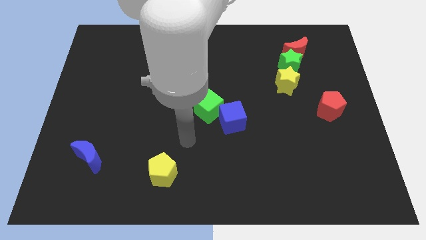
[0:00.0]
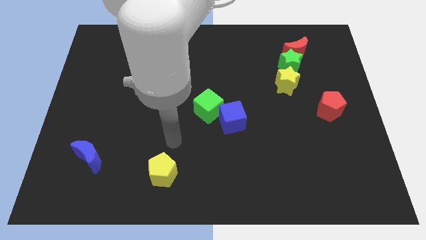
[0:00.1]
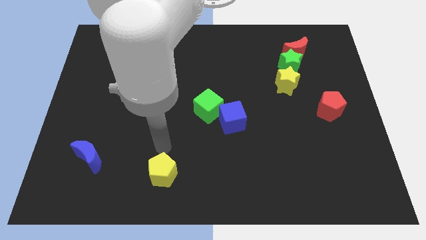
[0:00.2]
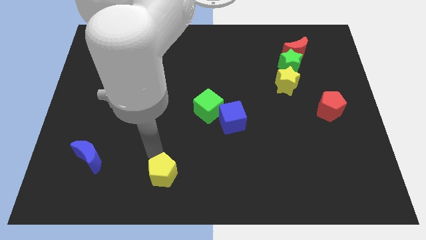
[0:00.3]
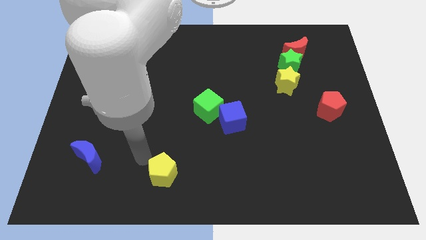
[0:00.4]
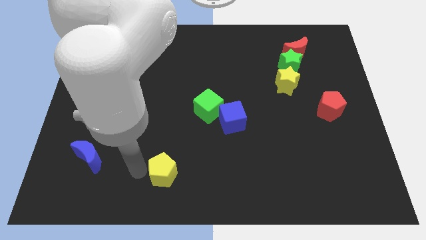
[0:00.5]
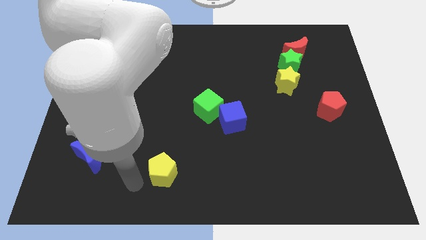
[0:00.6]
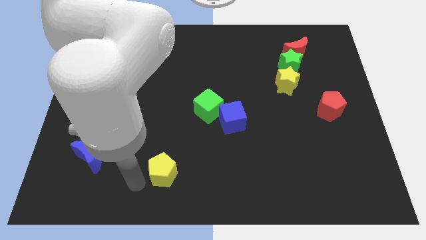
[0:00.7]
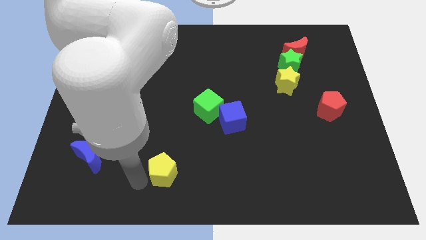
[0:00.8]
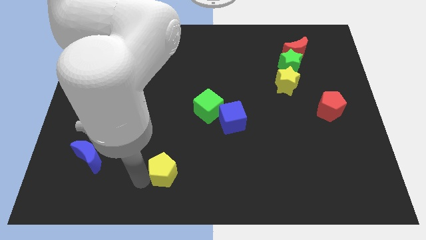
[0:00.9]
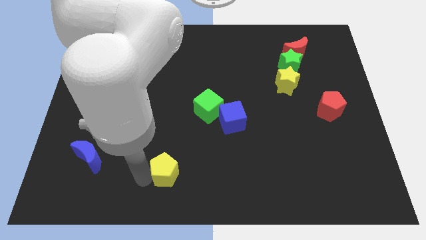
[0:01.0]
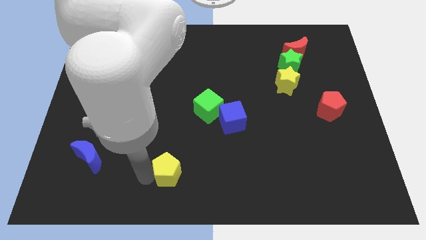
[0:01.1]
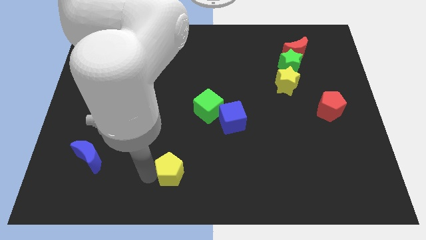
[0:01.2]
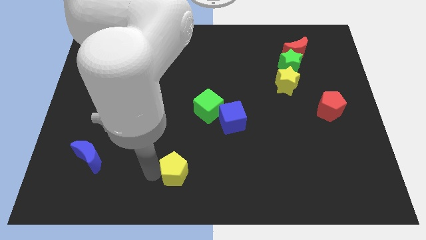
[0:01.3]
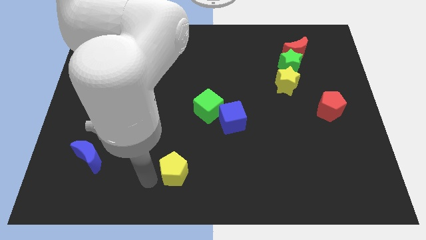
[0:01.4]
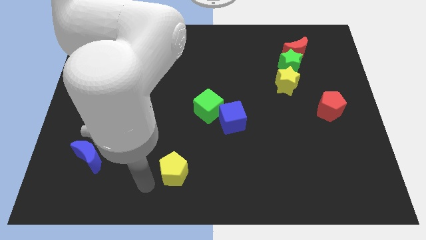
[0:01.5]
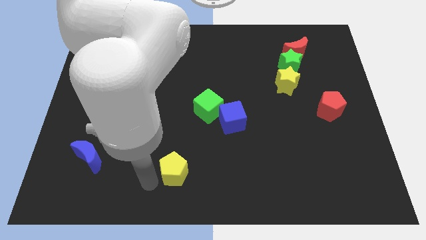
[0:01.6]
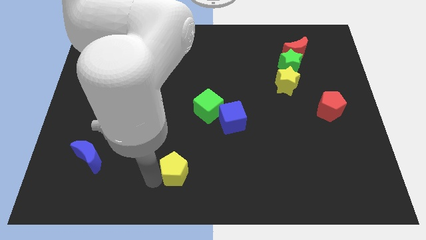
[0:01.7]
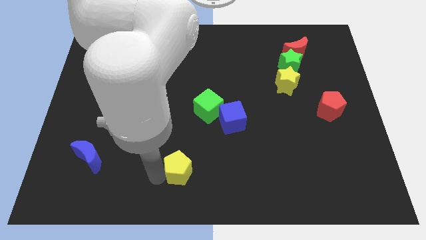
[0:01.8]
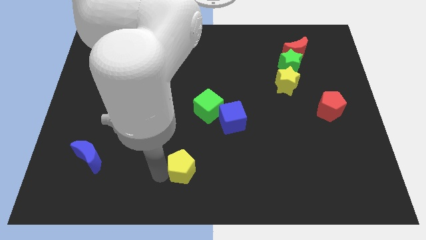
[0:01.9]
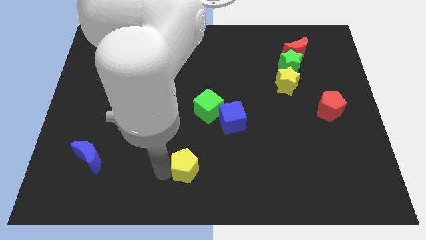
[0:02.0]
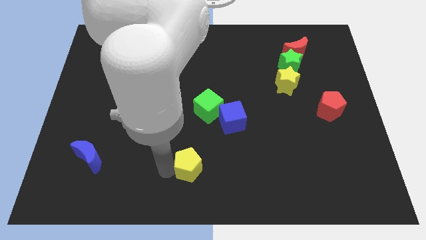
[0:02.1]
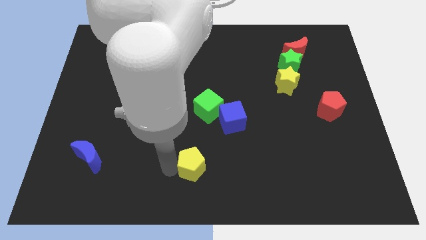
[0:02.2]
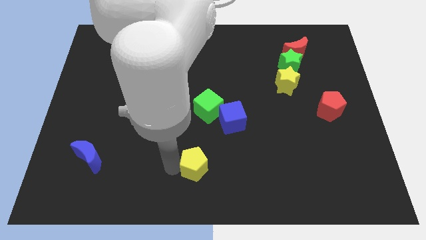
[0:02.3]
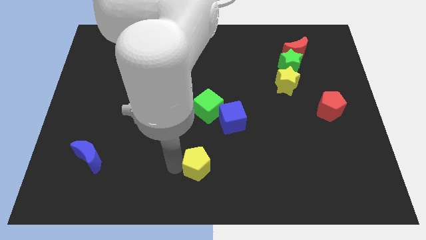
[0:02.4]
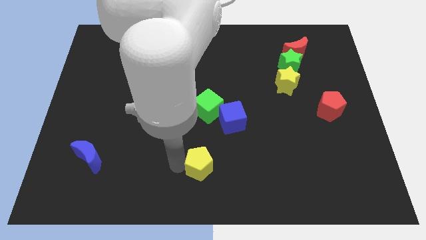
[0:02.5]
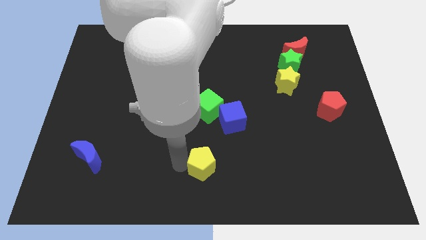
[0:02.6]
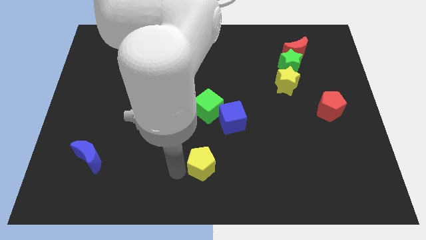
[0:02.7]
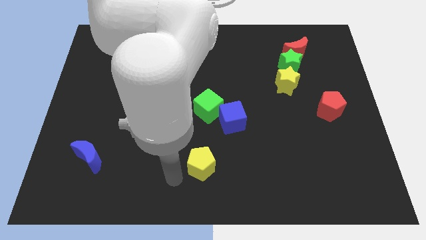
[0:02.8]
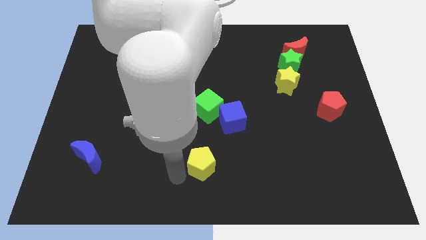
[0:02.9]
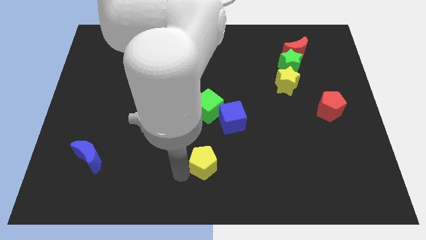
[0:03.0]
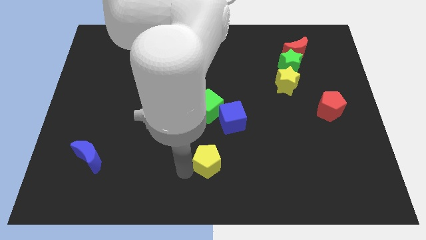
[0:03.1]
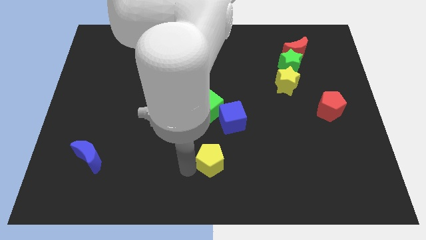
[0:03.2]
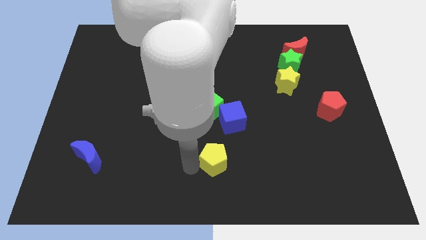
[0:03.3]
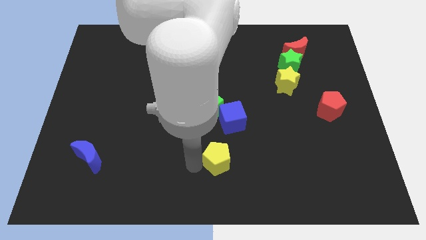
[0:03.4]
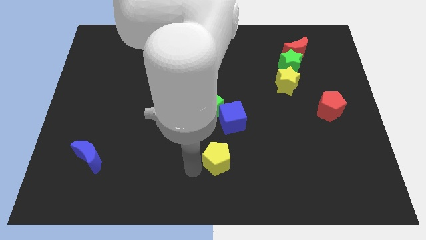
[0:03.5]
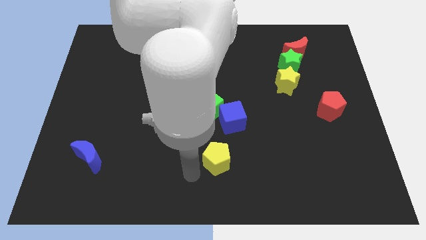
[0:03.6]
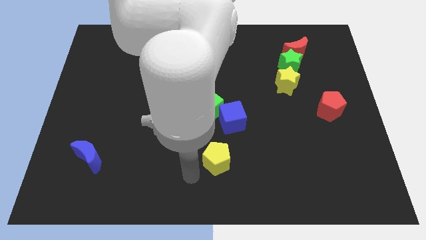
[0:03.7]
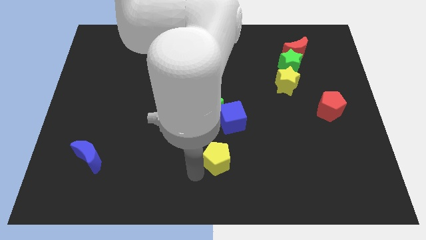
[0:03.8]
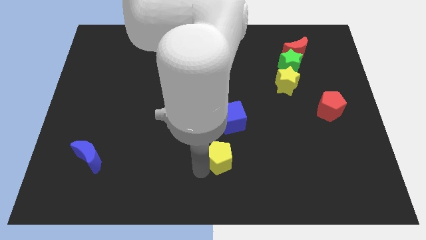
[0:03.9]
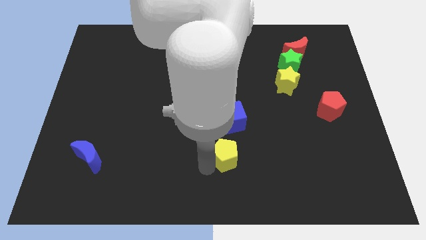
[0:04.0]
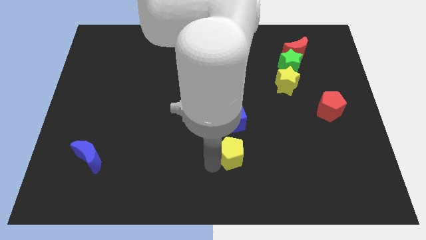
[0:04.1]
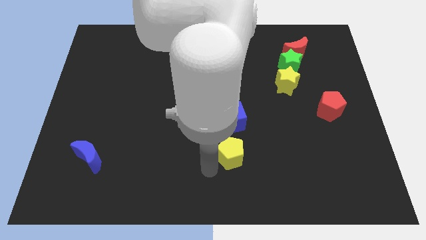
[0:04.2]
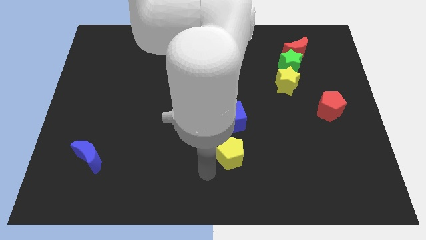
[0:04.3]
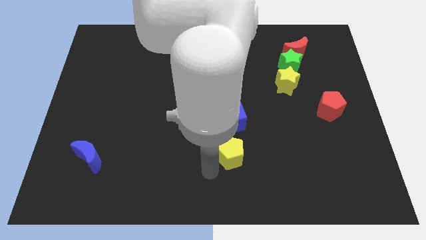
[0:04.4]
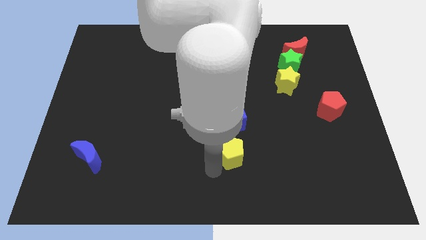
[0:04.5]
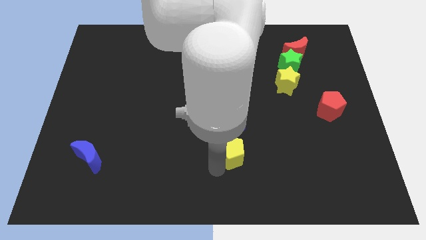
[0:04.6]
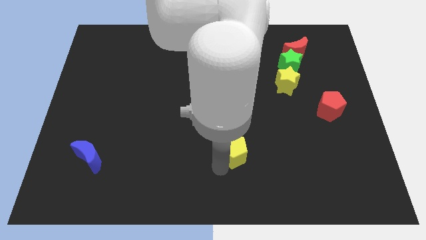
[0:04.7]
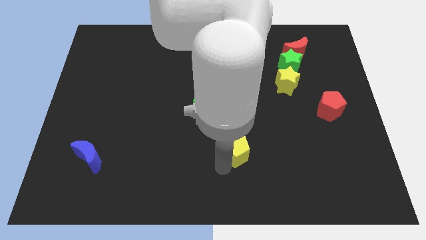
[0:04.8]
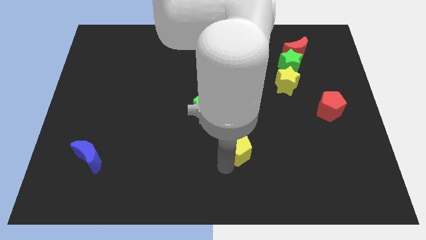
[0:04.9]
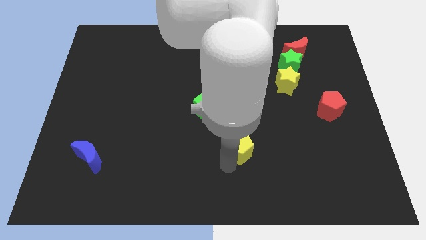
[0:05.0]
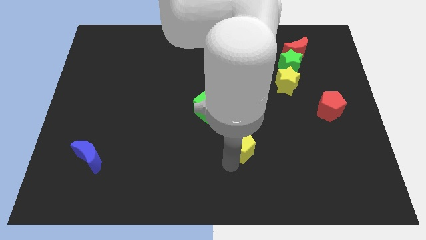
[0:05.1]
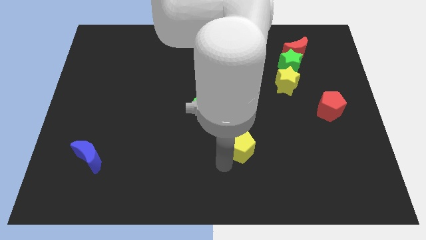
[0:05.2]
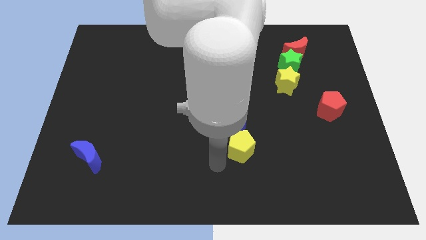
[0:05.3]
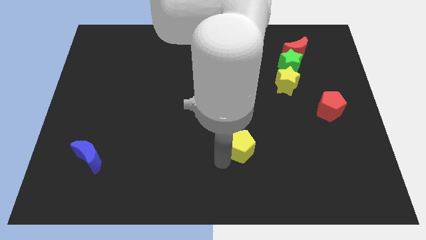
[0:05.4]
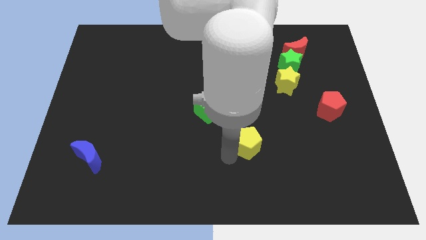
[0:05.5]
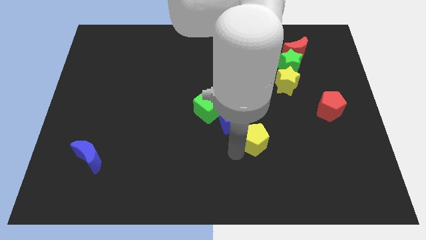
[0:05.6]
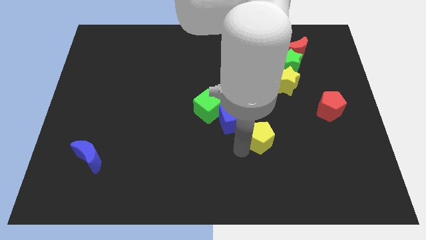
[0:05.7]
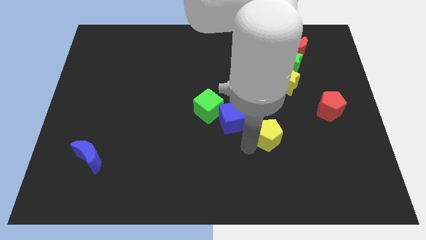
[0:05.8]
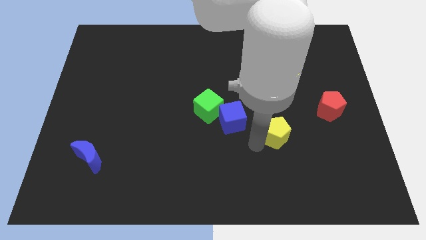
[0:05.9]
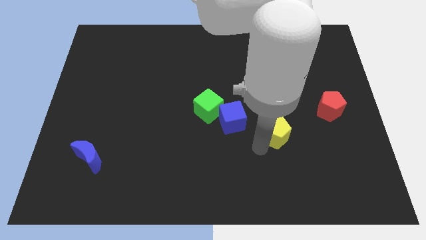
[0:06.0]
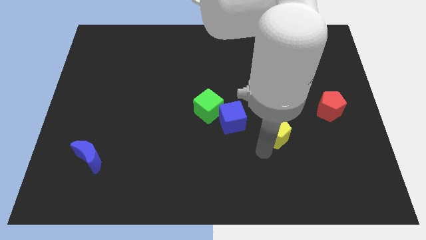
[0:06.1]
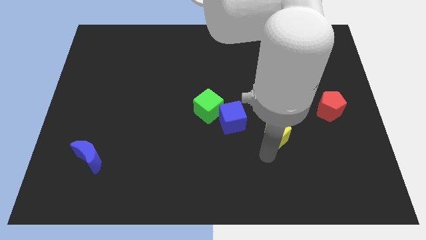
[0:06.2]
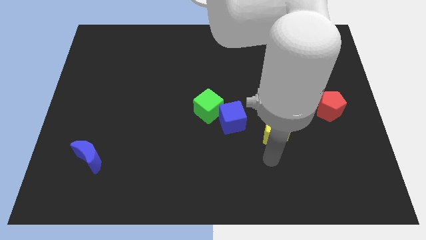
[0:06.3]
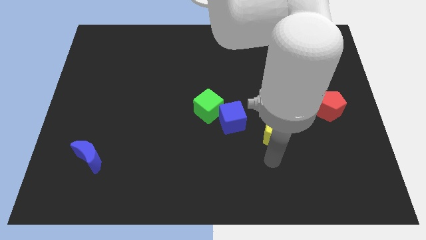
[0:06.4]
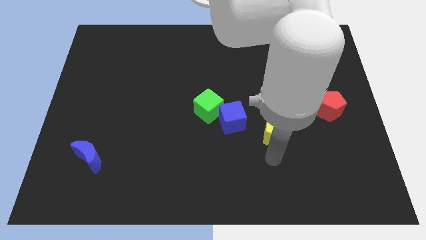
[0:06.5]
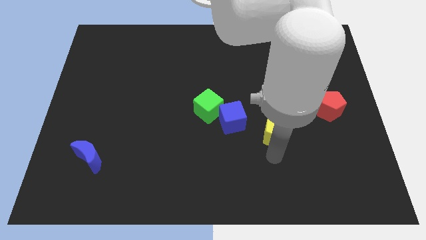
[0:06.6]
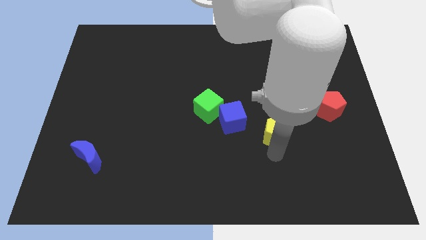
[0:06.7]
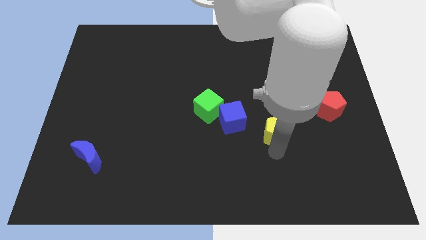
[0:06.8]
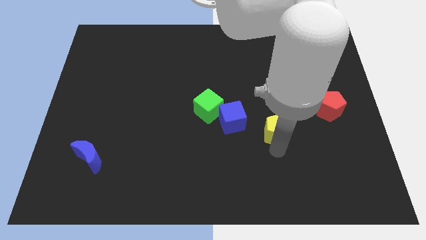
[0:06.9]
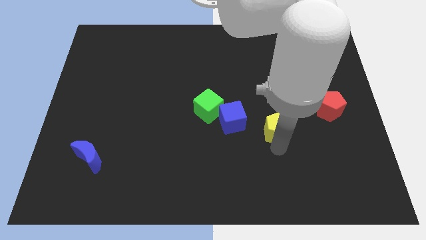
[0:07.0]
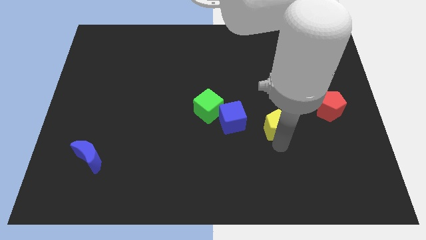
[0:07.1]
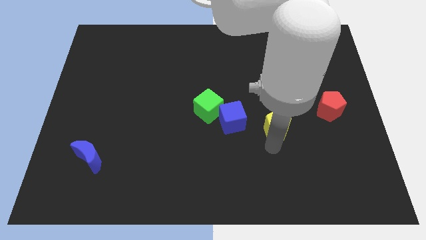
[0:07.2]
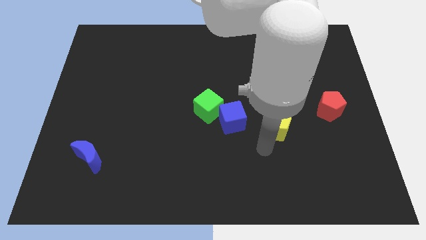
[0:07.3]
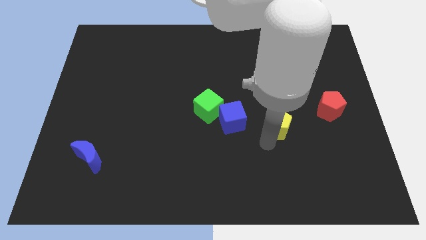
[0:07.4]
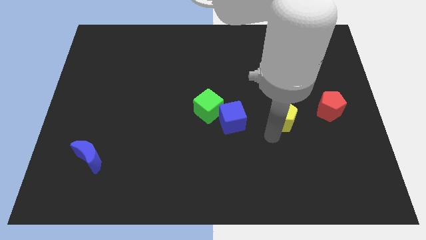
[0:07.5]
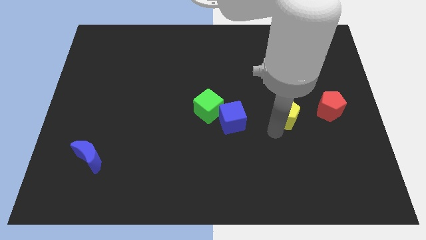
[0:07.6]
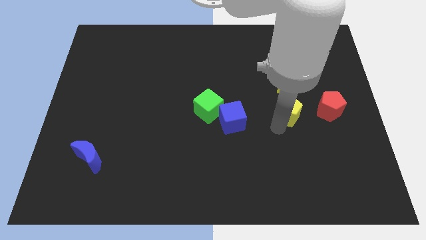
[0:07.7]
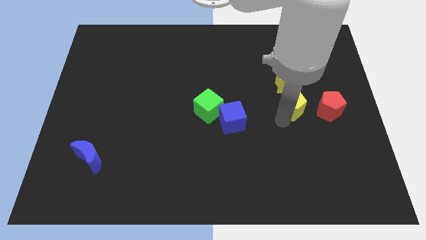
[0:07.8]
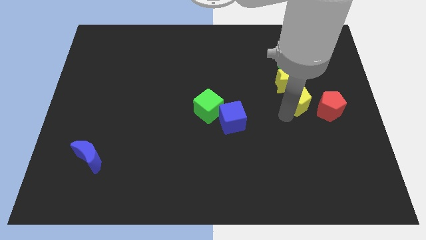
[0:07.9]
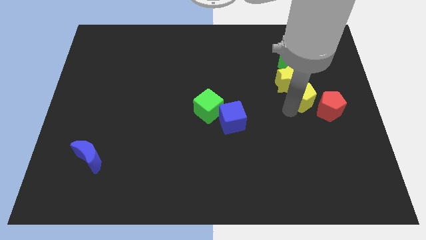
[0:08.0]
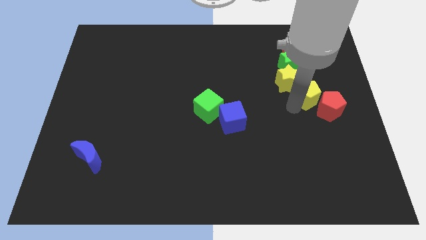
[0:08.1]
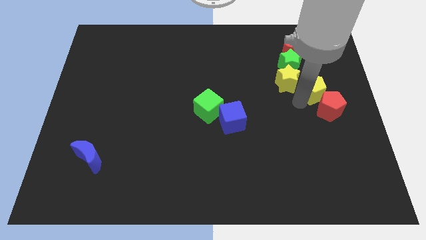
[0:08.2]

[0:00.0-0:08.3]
push the yellow pentagon to the right side of the yellow star
